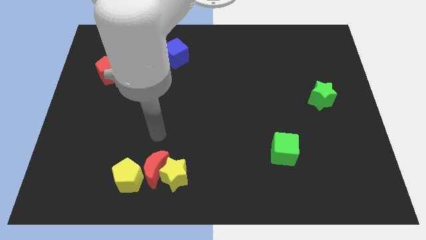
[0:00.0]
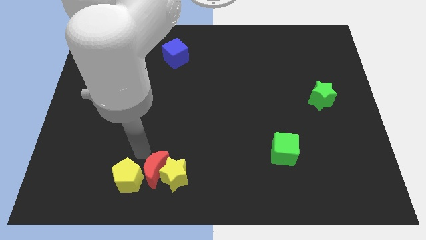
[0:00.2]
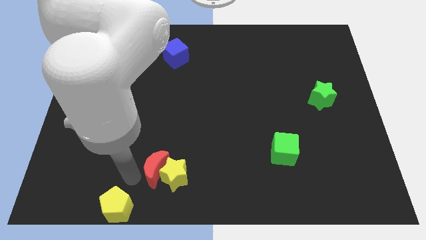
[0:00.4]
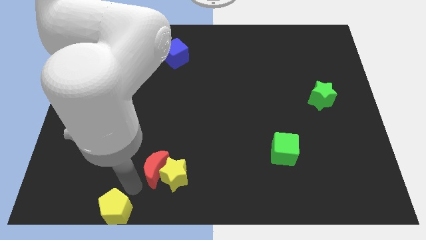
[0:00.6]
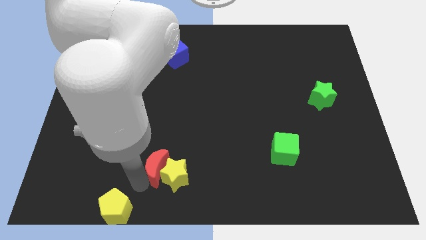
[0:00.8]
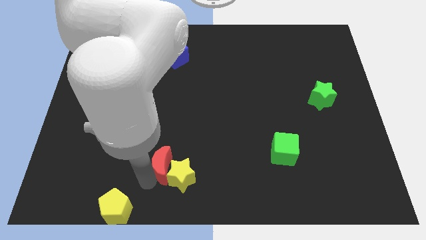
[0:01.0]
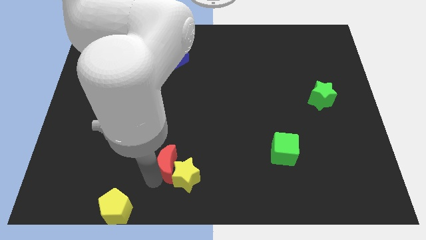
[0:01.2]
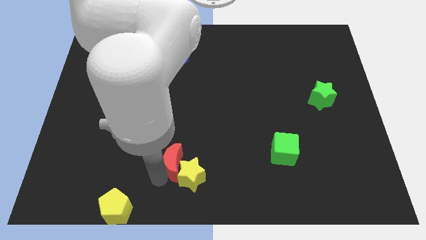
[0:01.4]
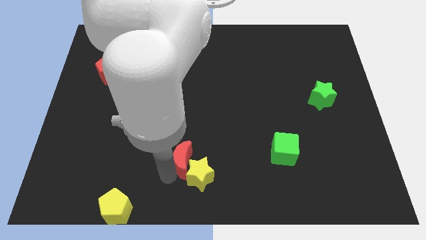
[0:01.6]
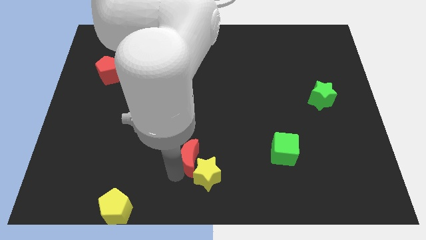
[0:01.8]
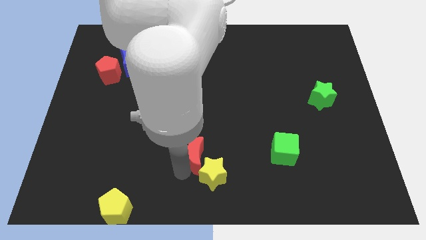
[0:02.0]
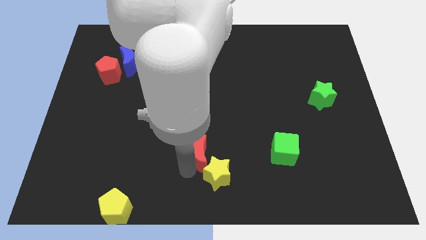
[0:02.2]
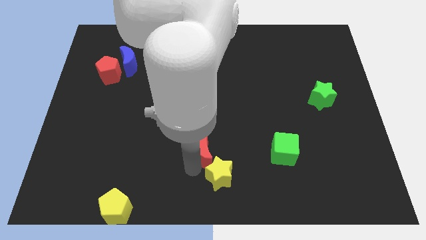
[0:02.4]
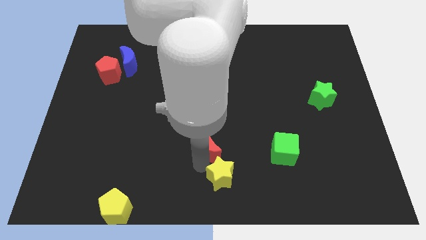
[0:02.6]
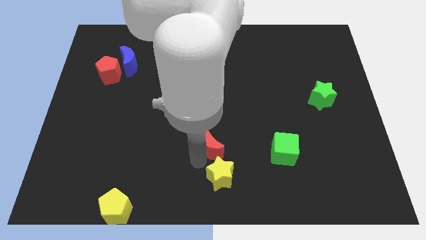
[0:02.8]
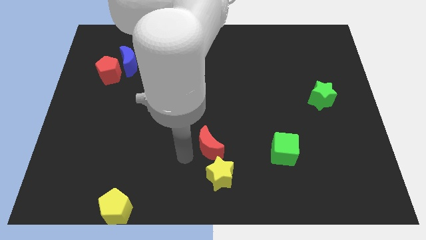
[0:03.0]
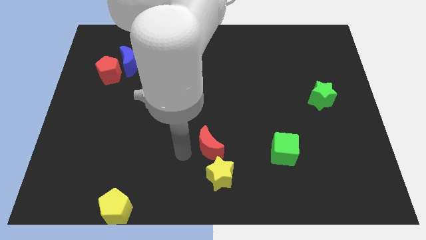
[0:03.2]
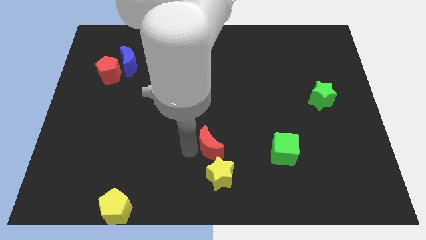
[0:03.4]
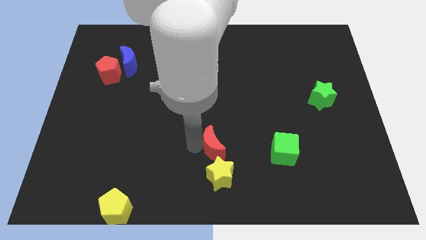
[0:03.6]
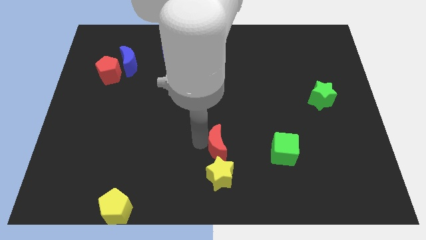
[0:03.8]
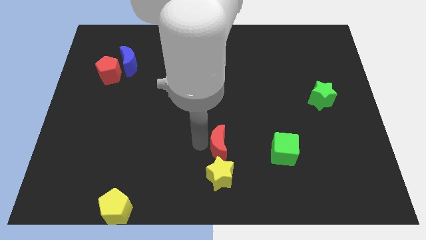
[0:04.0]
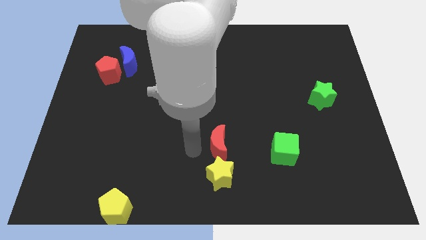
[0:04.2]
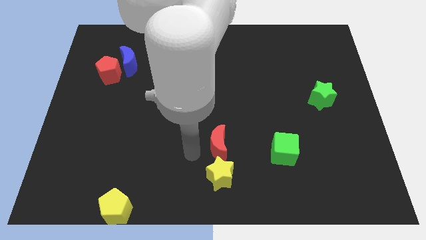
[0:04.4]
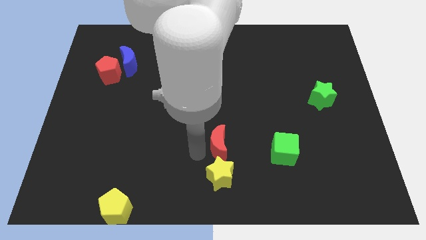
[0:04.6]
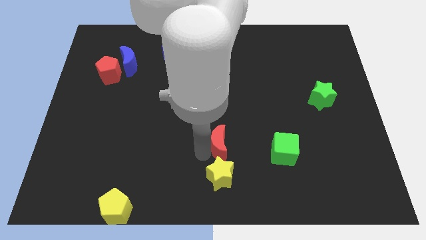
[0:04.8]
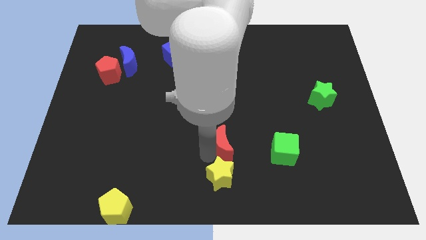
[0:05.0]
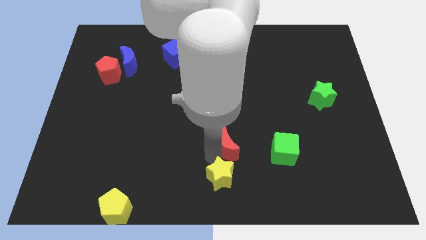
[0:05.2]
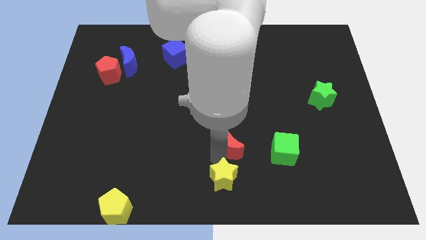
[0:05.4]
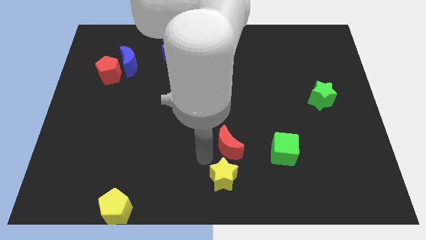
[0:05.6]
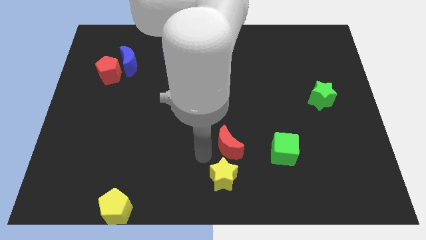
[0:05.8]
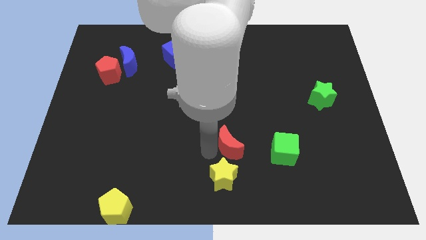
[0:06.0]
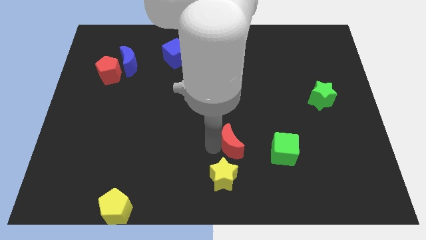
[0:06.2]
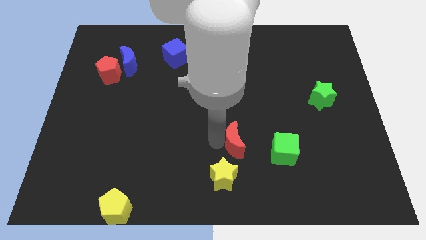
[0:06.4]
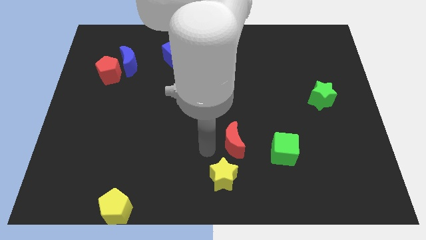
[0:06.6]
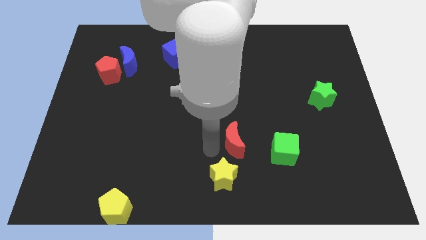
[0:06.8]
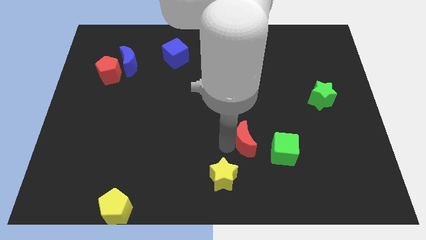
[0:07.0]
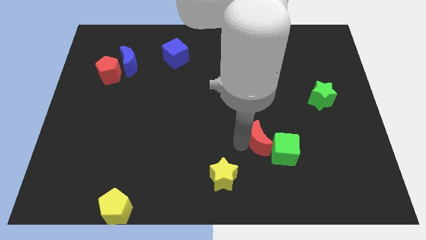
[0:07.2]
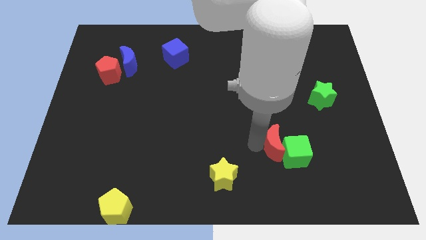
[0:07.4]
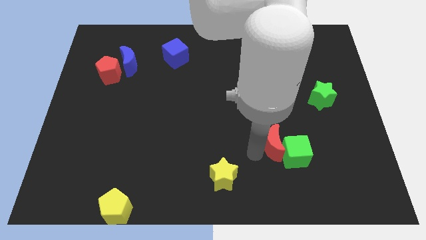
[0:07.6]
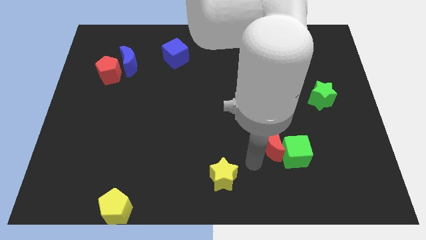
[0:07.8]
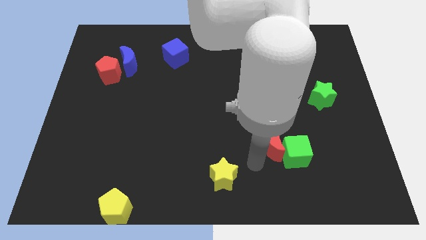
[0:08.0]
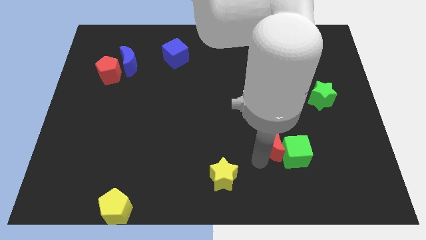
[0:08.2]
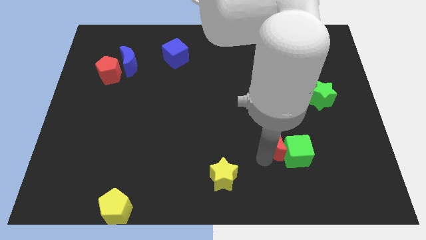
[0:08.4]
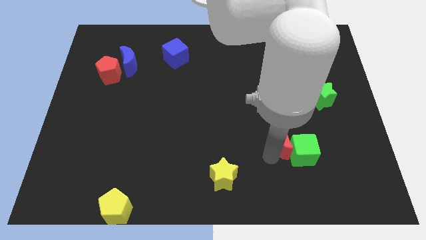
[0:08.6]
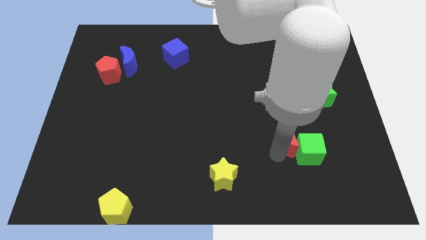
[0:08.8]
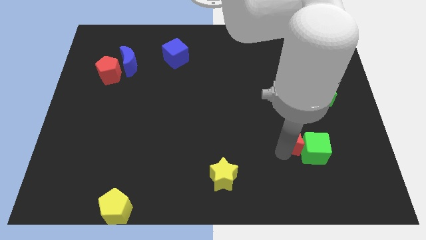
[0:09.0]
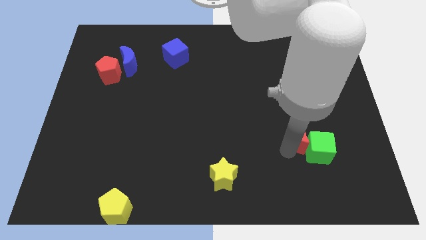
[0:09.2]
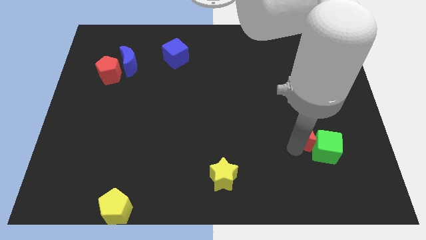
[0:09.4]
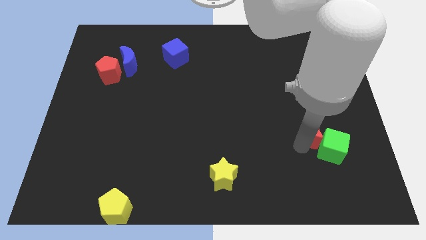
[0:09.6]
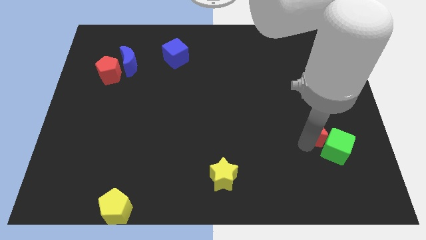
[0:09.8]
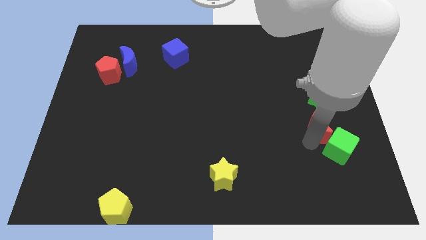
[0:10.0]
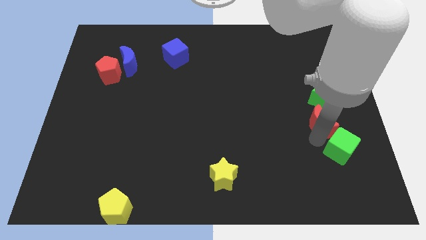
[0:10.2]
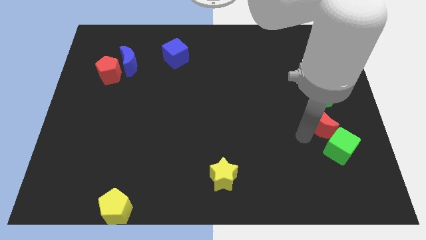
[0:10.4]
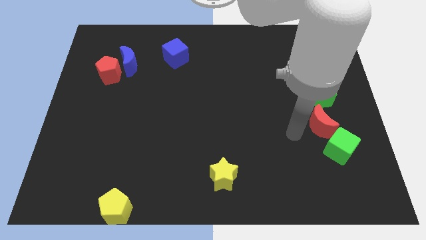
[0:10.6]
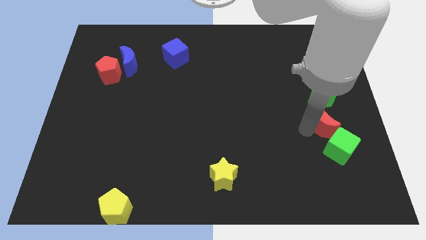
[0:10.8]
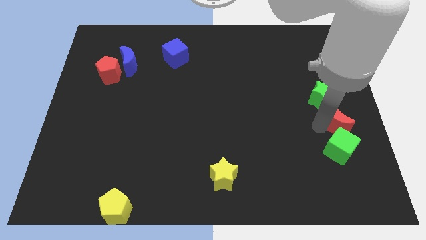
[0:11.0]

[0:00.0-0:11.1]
push the red moon to the center right
